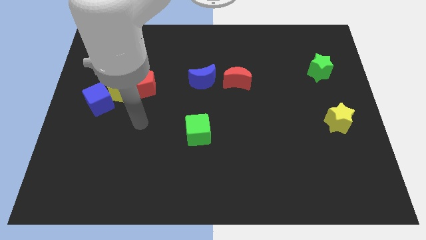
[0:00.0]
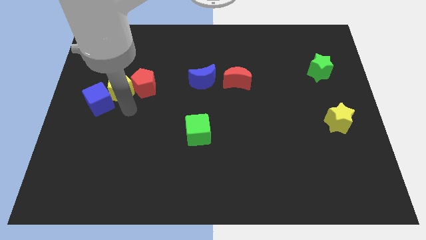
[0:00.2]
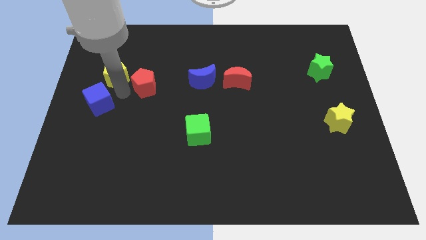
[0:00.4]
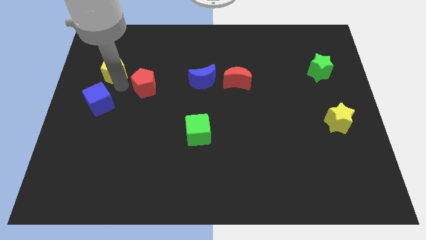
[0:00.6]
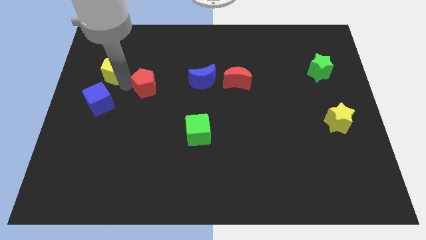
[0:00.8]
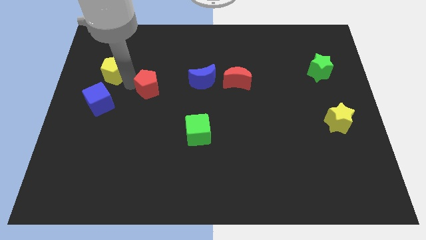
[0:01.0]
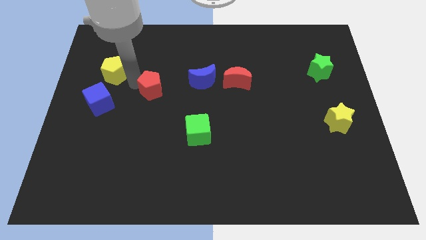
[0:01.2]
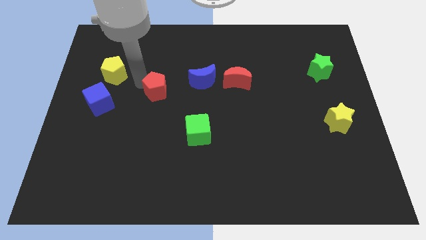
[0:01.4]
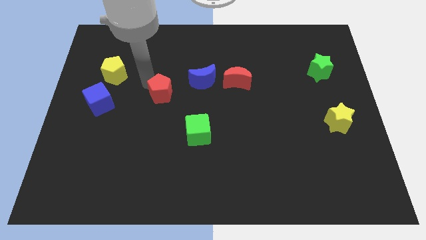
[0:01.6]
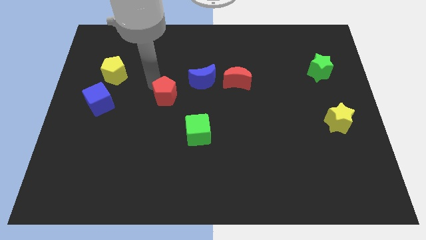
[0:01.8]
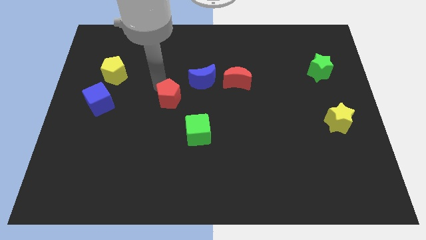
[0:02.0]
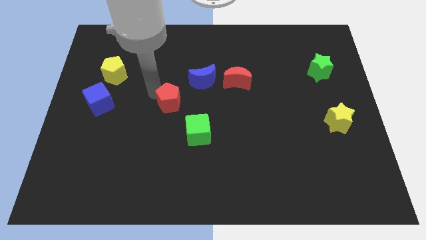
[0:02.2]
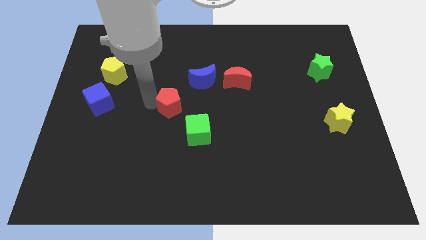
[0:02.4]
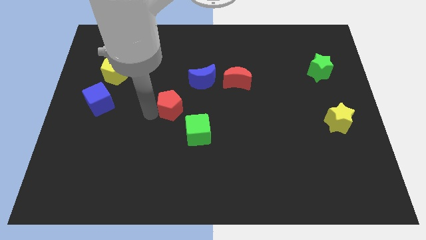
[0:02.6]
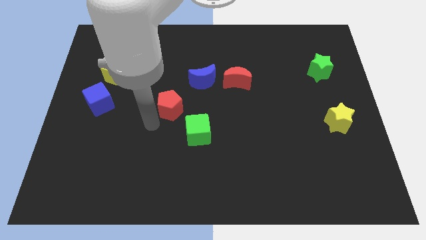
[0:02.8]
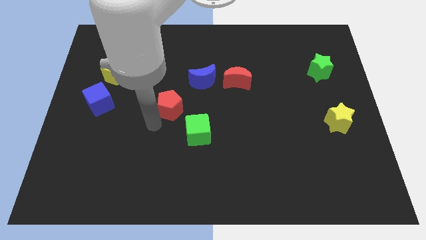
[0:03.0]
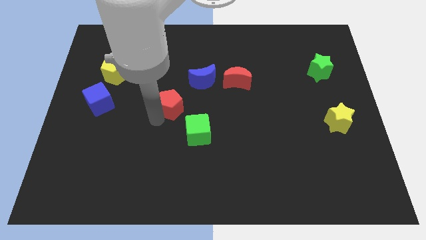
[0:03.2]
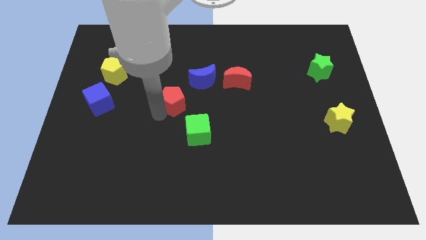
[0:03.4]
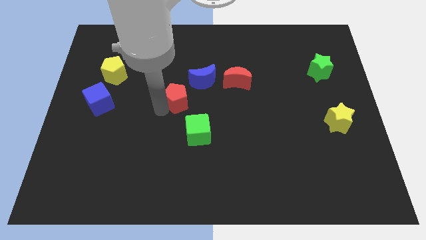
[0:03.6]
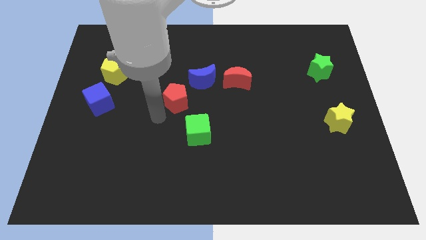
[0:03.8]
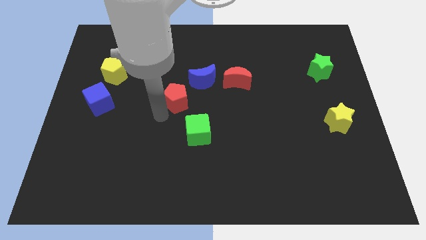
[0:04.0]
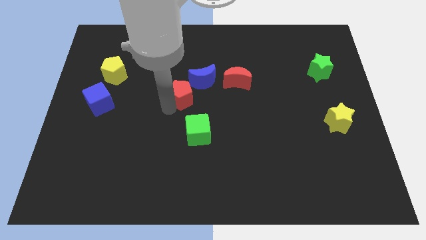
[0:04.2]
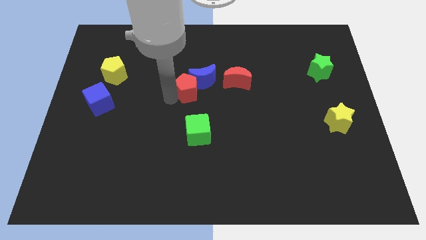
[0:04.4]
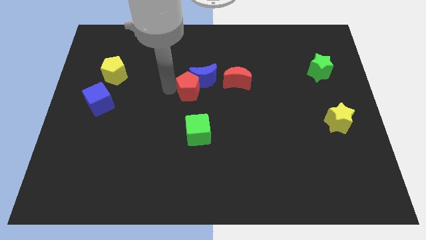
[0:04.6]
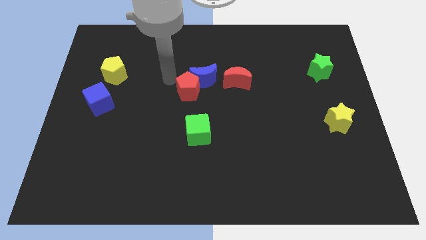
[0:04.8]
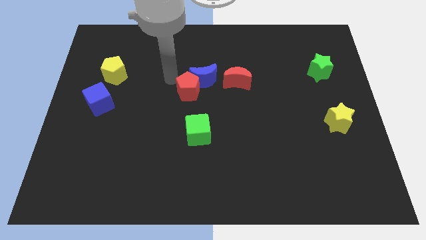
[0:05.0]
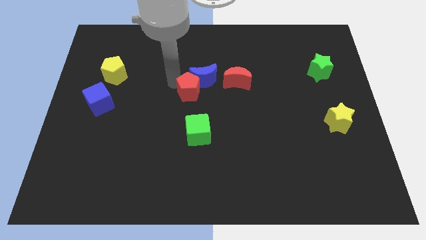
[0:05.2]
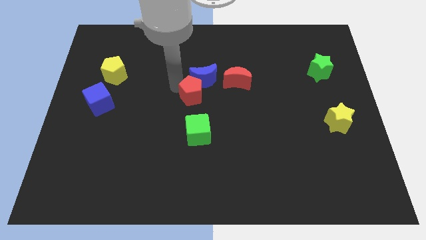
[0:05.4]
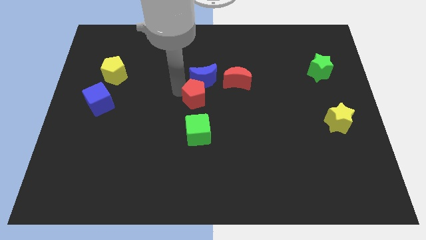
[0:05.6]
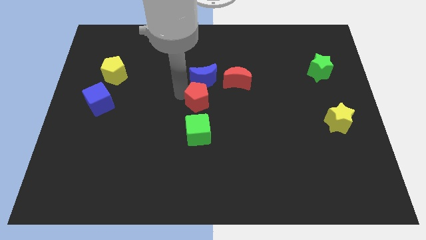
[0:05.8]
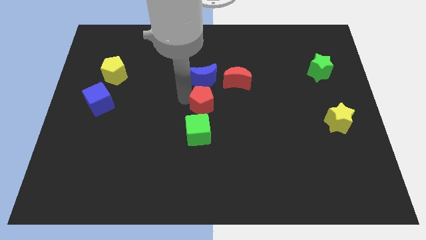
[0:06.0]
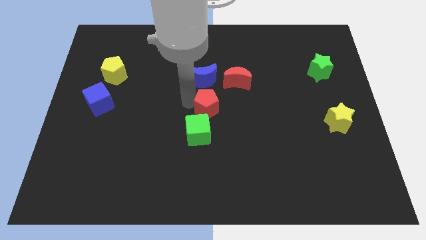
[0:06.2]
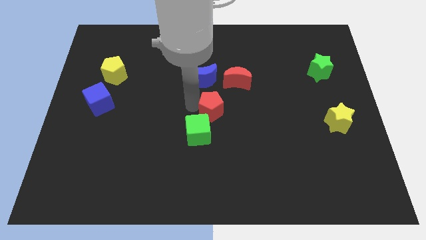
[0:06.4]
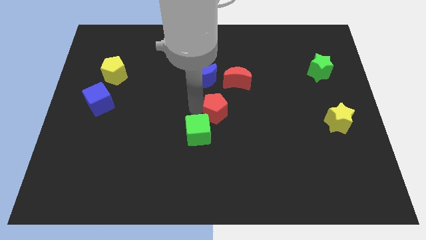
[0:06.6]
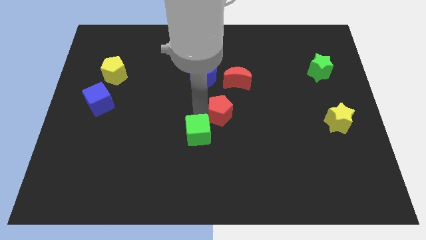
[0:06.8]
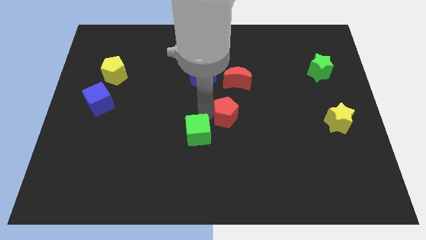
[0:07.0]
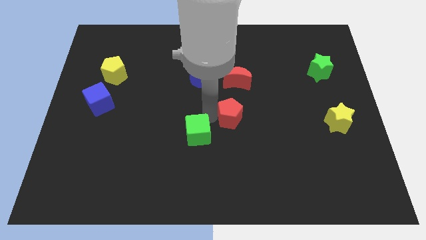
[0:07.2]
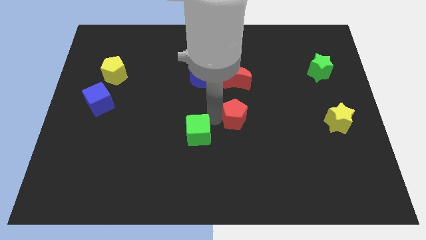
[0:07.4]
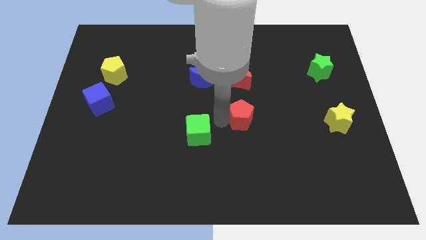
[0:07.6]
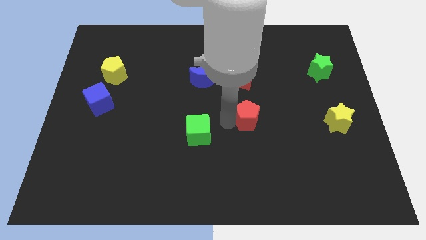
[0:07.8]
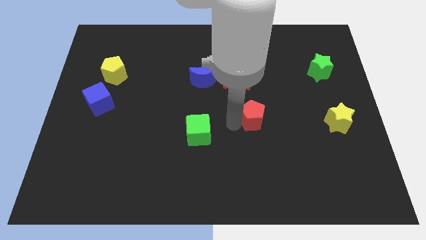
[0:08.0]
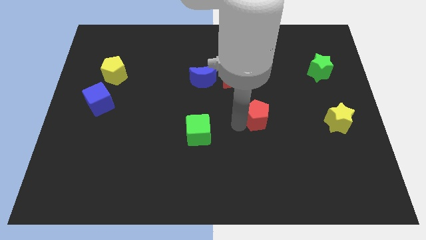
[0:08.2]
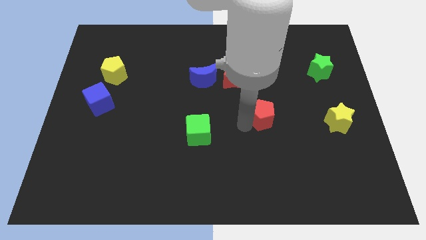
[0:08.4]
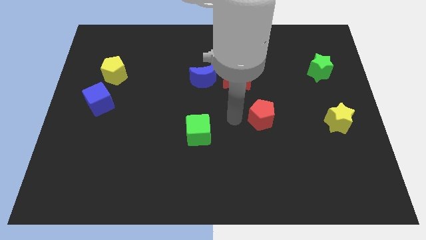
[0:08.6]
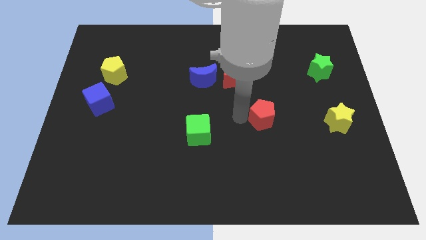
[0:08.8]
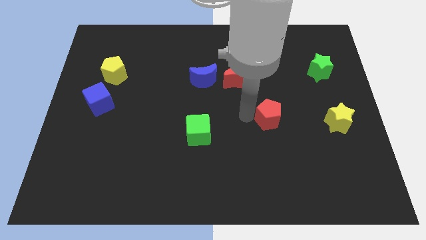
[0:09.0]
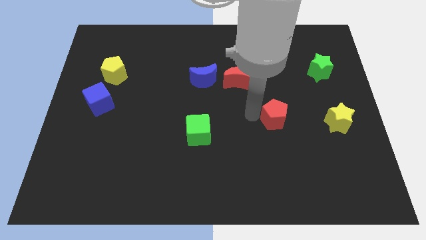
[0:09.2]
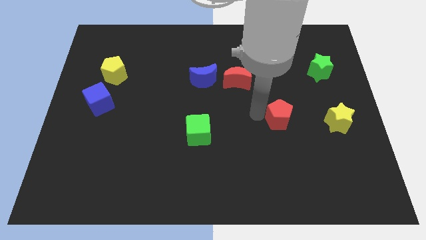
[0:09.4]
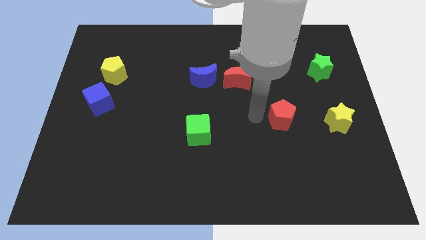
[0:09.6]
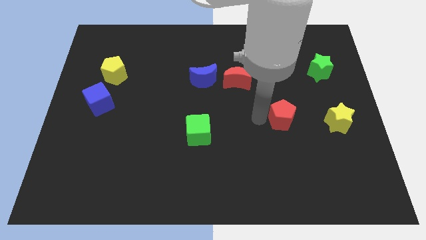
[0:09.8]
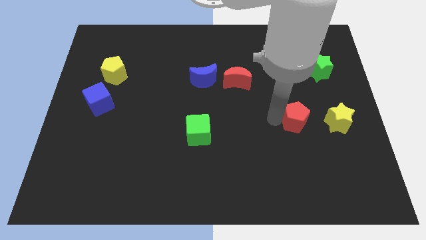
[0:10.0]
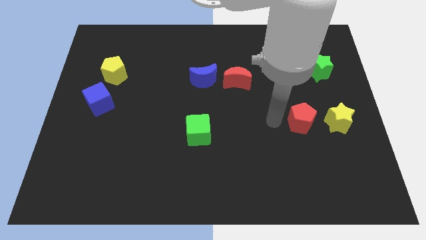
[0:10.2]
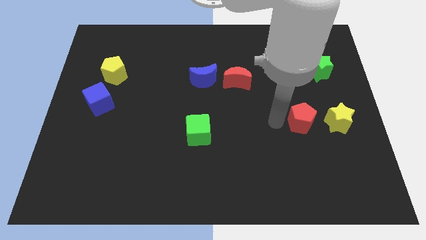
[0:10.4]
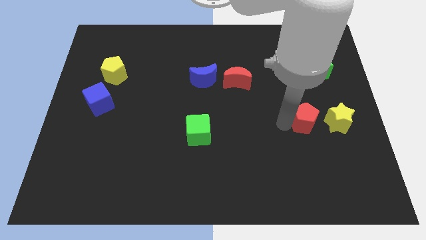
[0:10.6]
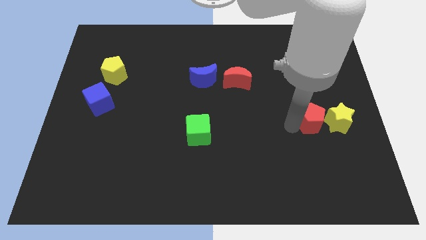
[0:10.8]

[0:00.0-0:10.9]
put the red pentagon close to the yellow star
